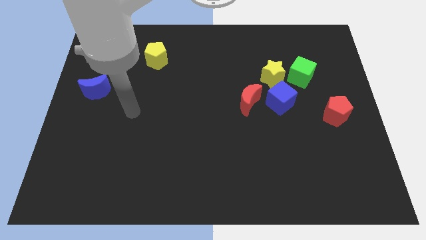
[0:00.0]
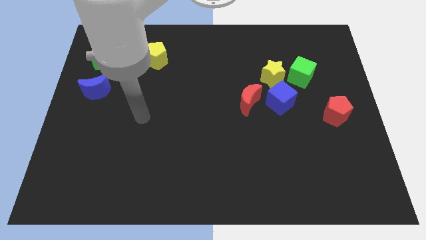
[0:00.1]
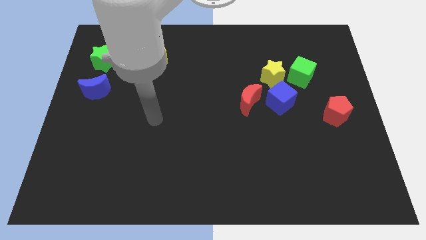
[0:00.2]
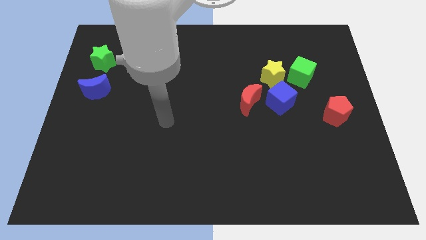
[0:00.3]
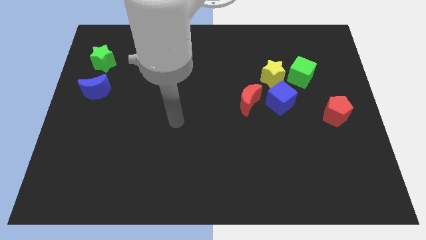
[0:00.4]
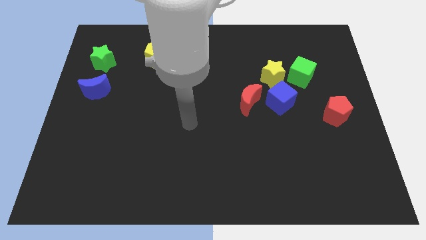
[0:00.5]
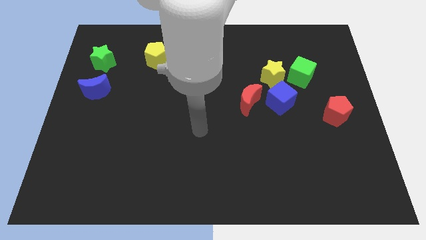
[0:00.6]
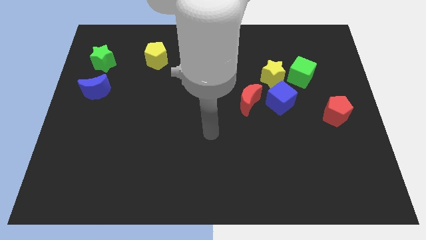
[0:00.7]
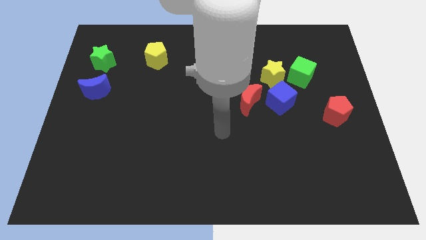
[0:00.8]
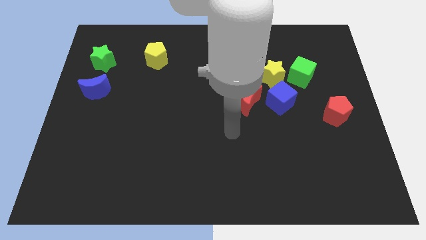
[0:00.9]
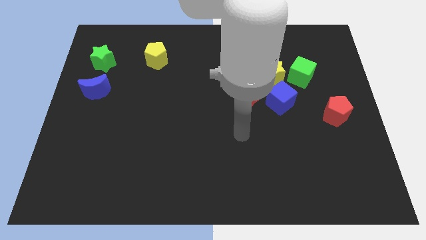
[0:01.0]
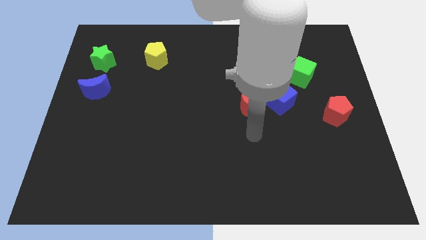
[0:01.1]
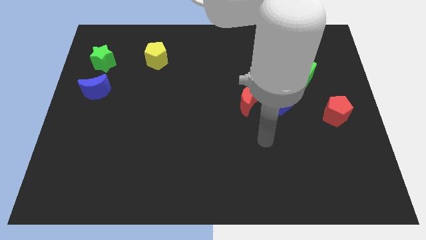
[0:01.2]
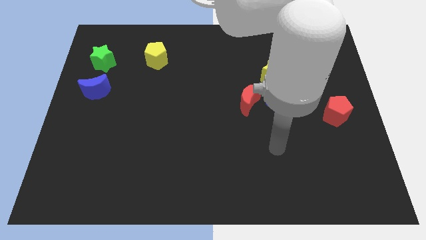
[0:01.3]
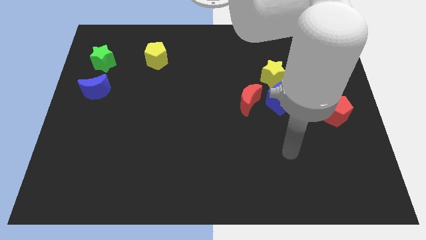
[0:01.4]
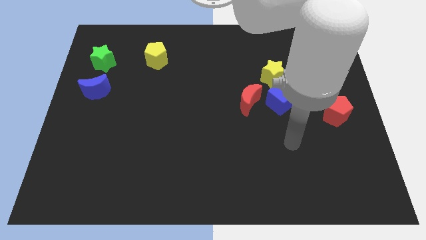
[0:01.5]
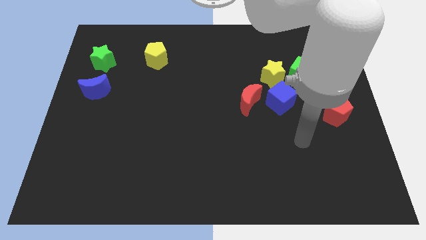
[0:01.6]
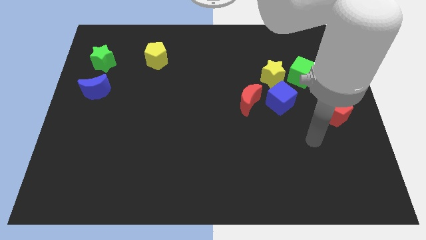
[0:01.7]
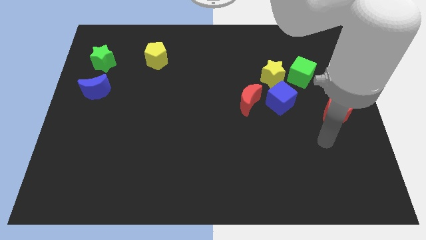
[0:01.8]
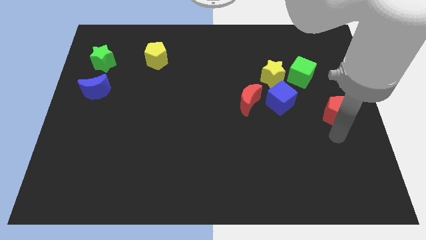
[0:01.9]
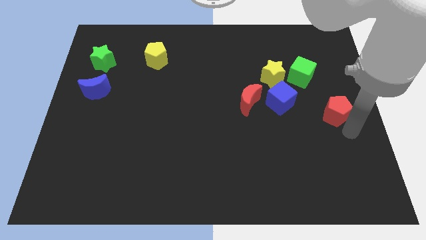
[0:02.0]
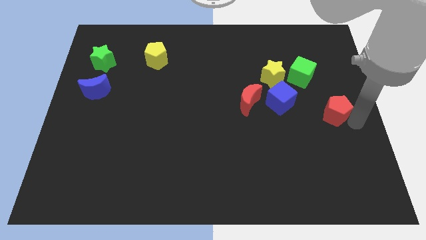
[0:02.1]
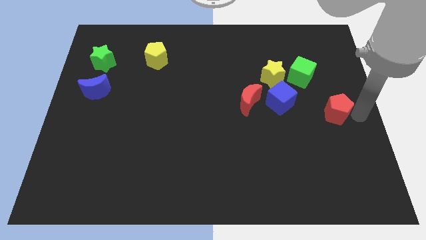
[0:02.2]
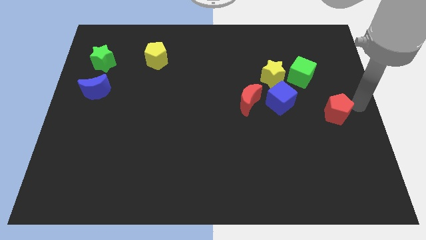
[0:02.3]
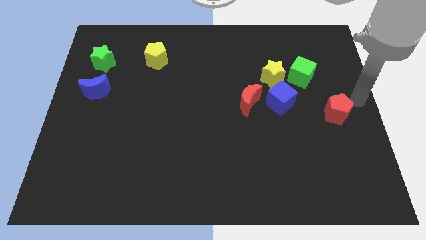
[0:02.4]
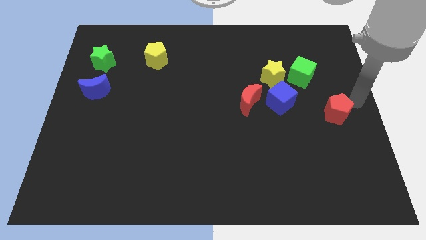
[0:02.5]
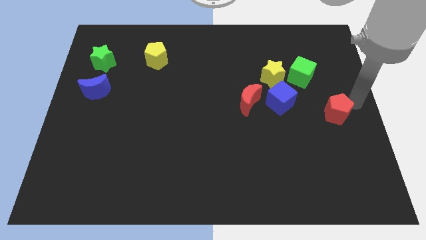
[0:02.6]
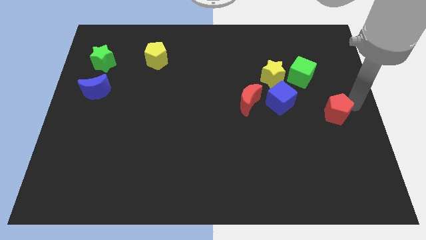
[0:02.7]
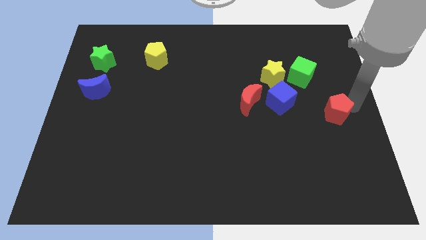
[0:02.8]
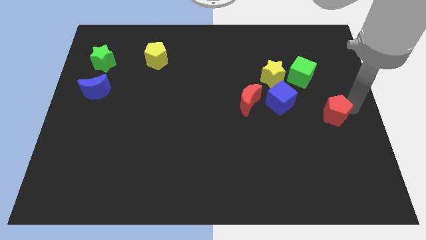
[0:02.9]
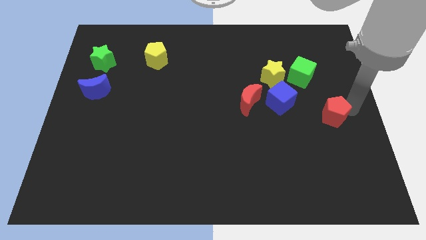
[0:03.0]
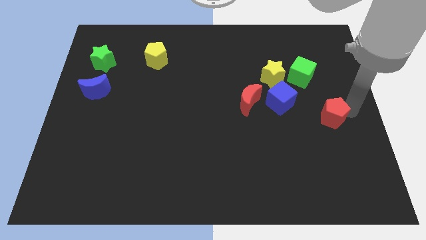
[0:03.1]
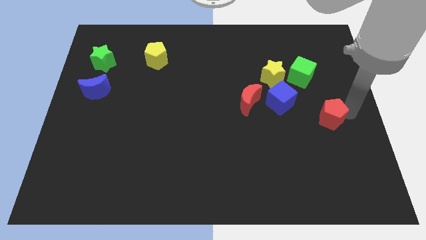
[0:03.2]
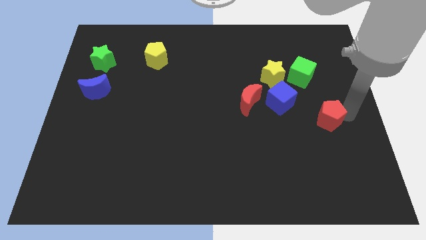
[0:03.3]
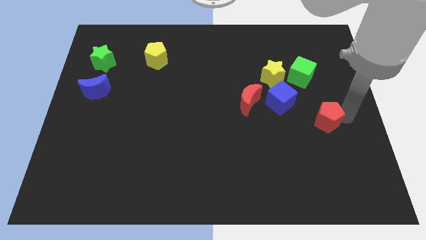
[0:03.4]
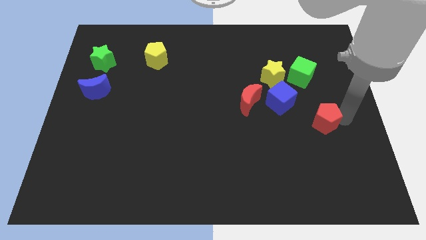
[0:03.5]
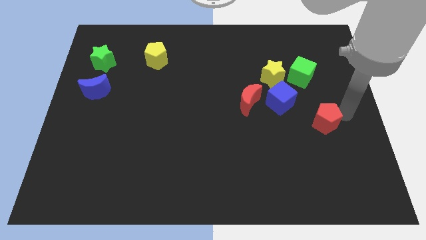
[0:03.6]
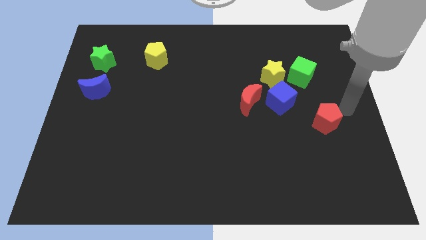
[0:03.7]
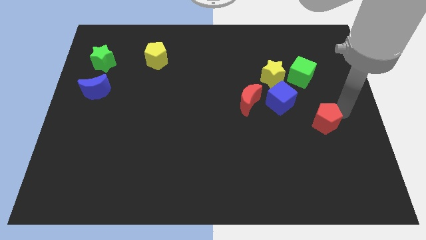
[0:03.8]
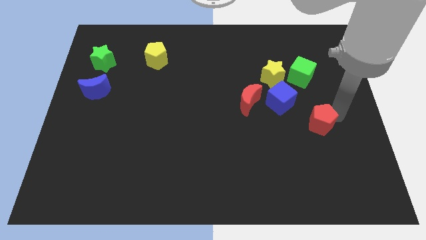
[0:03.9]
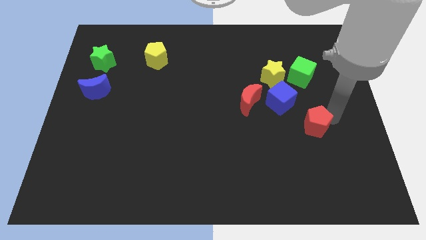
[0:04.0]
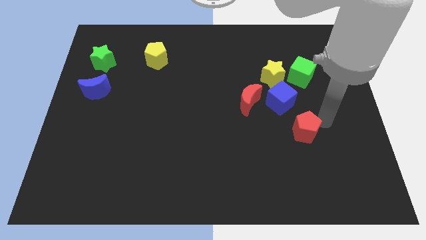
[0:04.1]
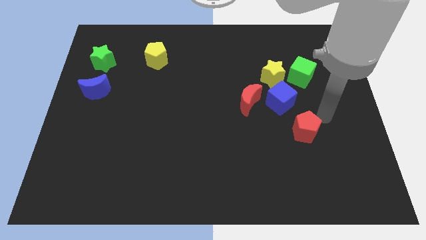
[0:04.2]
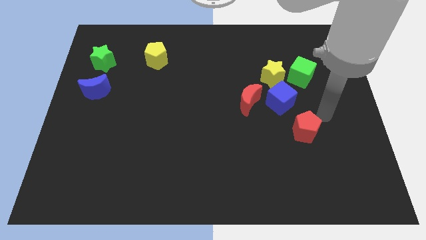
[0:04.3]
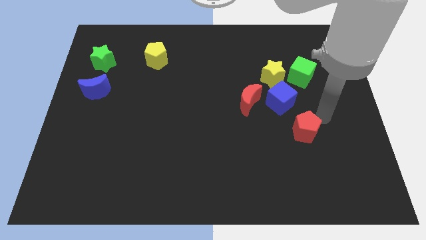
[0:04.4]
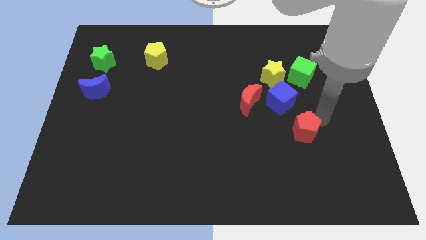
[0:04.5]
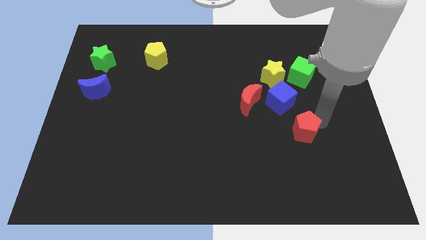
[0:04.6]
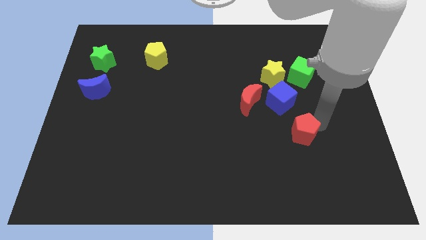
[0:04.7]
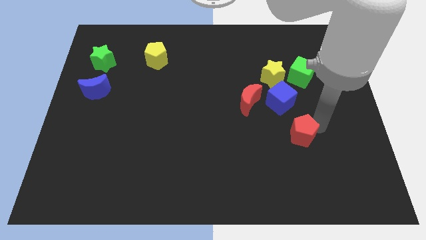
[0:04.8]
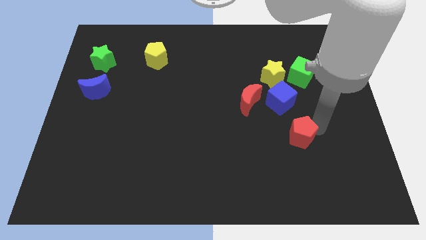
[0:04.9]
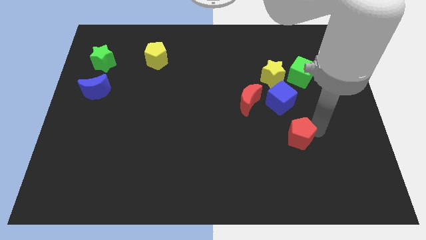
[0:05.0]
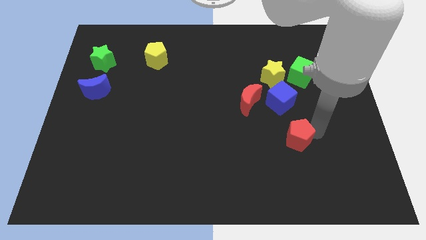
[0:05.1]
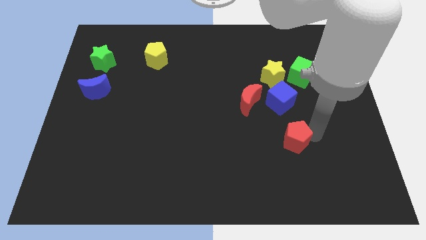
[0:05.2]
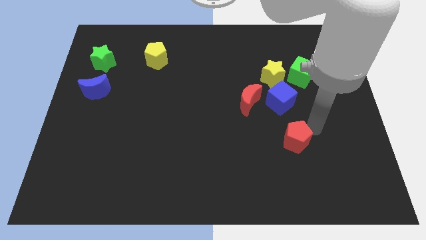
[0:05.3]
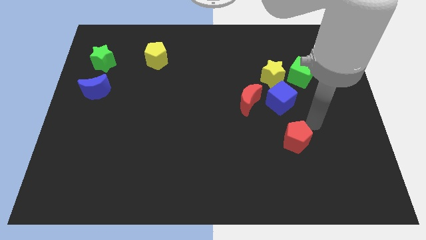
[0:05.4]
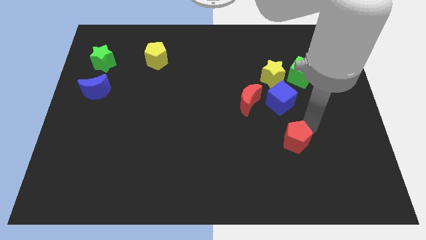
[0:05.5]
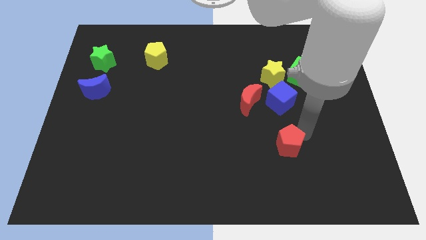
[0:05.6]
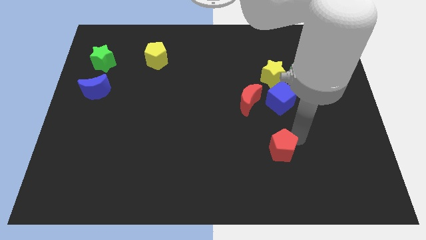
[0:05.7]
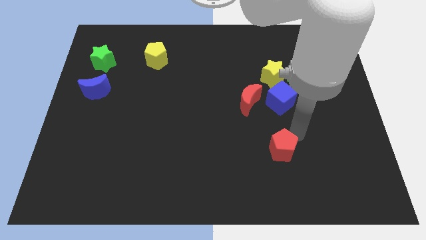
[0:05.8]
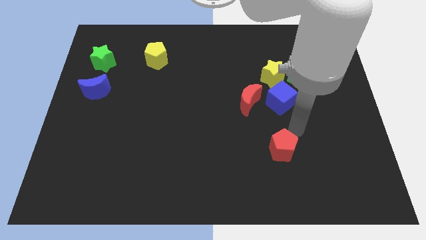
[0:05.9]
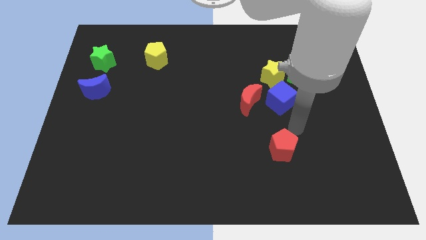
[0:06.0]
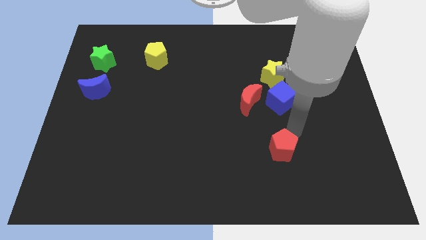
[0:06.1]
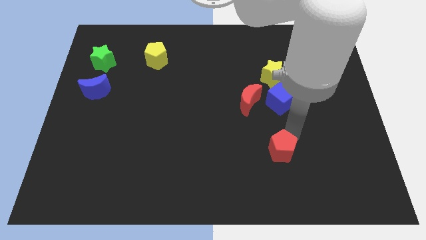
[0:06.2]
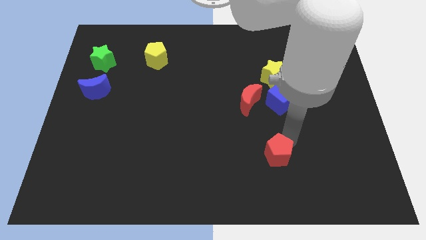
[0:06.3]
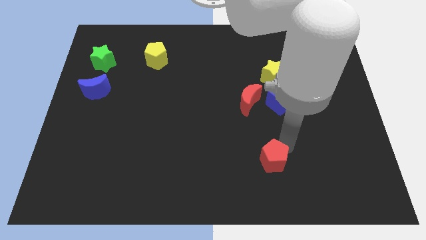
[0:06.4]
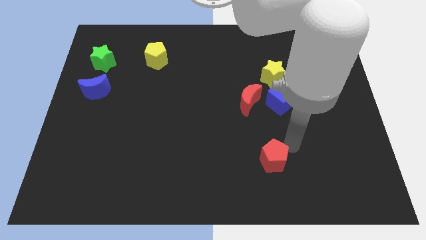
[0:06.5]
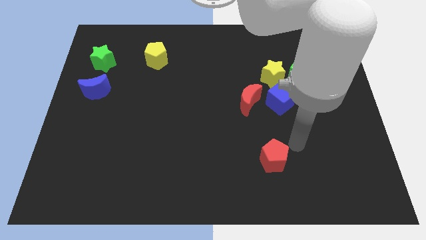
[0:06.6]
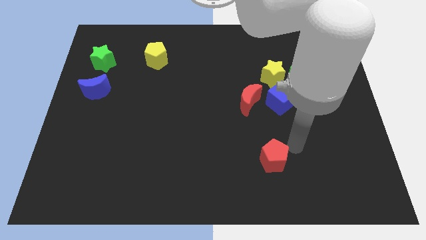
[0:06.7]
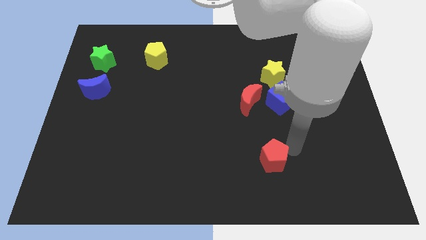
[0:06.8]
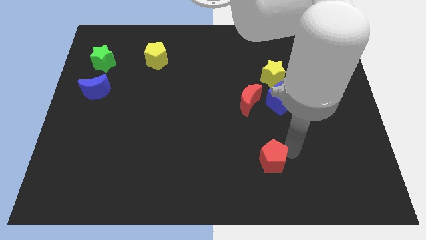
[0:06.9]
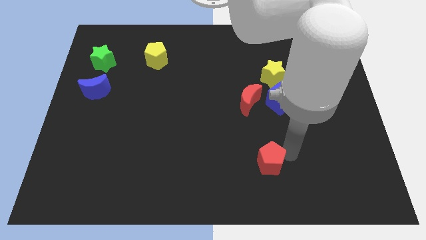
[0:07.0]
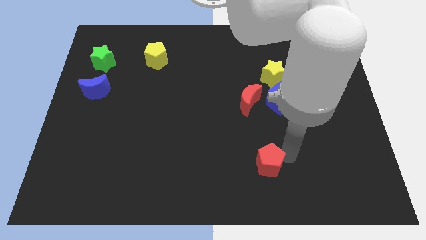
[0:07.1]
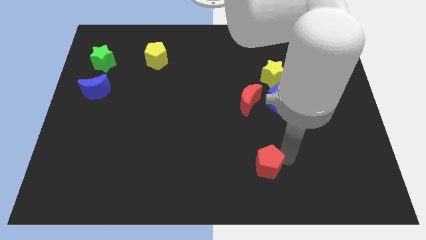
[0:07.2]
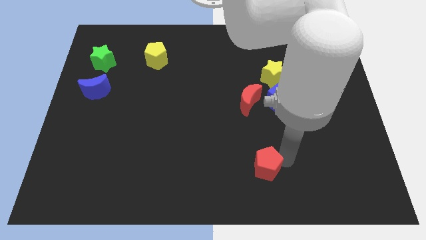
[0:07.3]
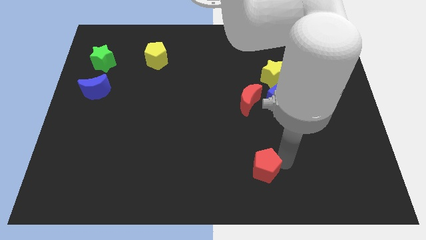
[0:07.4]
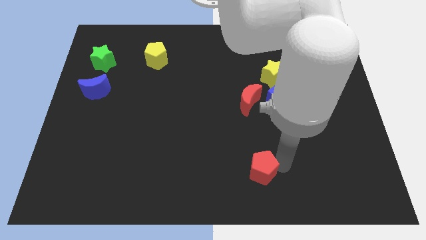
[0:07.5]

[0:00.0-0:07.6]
push the red pentagon to the bottom side
